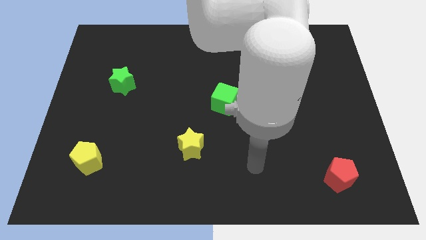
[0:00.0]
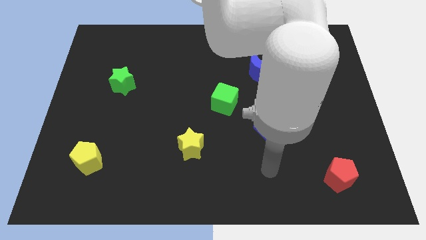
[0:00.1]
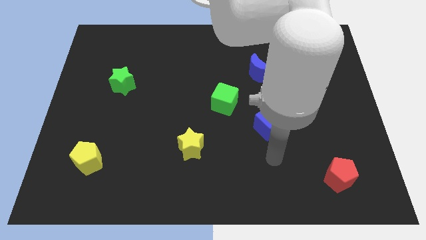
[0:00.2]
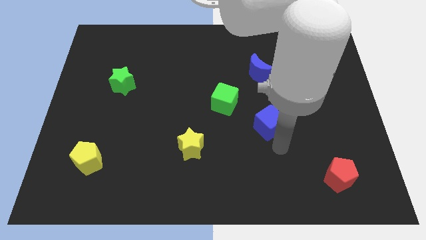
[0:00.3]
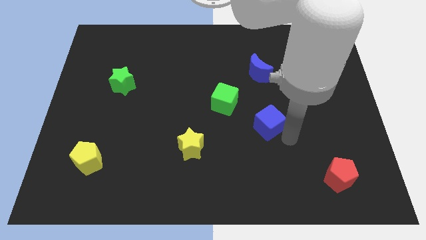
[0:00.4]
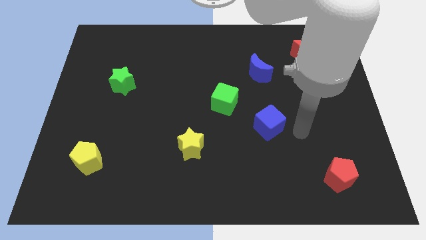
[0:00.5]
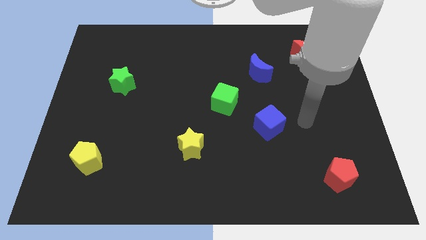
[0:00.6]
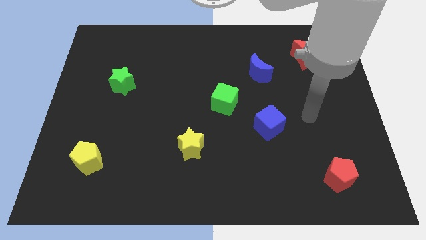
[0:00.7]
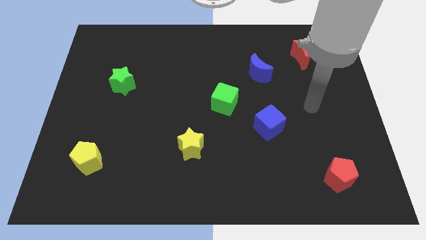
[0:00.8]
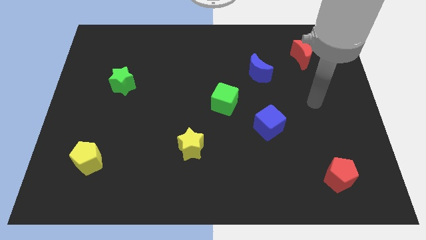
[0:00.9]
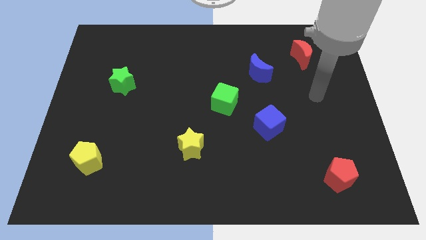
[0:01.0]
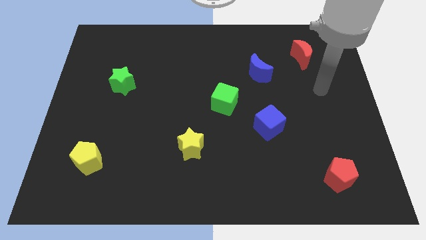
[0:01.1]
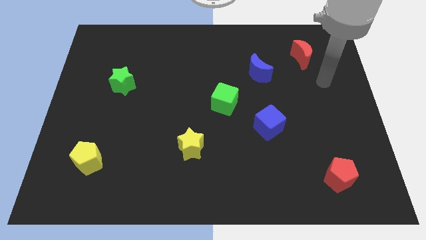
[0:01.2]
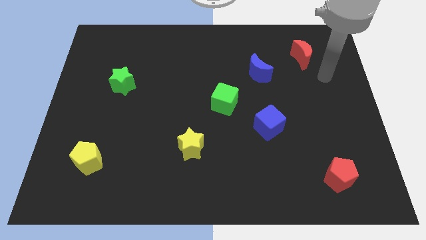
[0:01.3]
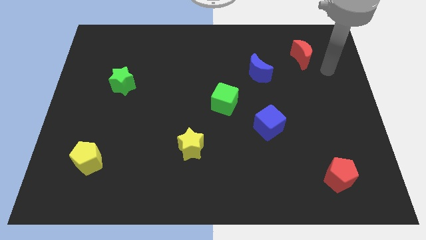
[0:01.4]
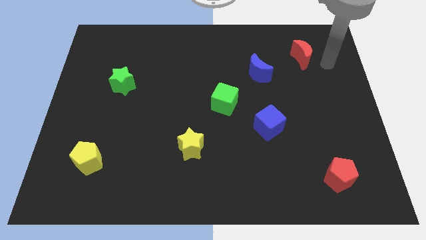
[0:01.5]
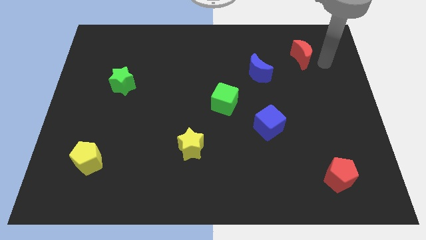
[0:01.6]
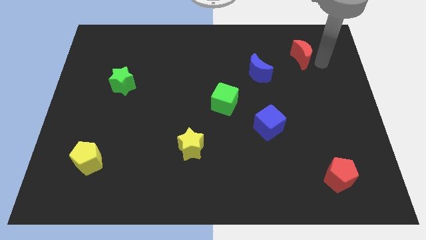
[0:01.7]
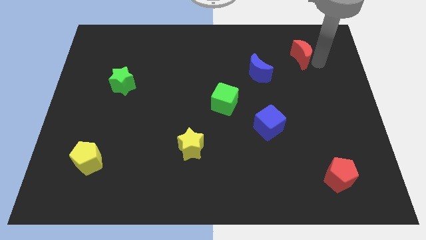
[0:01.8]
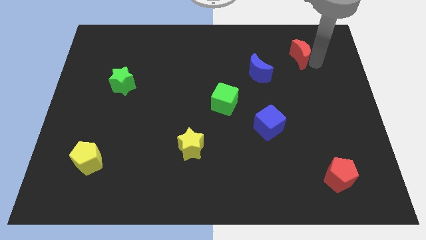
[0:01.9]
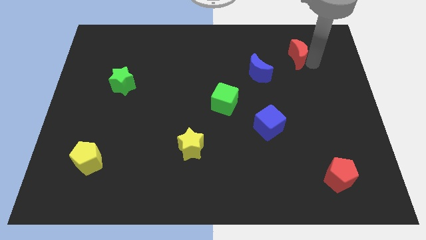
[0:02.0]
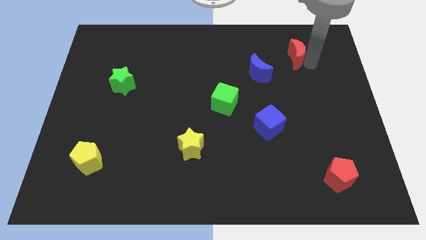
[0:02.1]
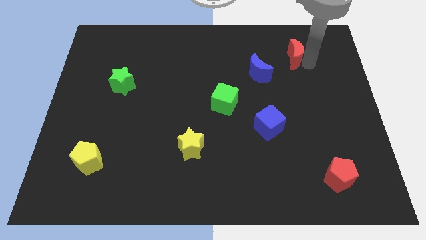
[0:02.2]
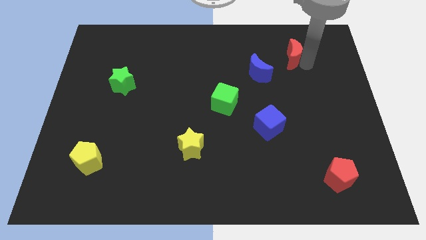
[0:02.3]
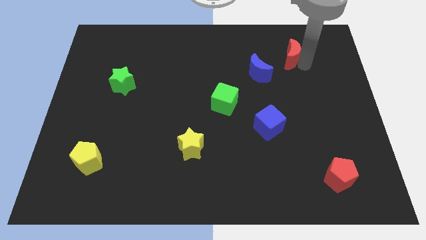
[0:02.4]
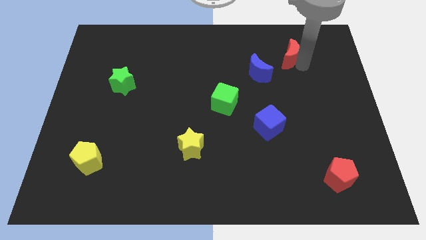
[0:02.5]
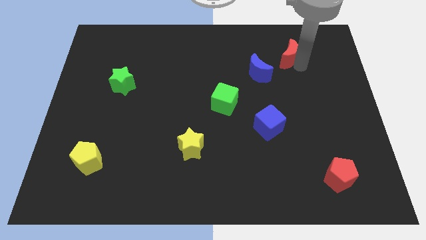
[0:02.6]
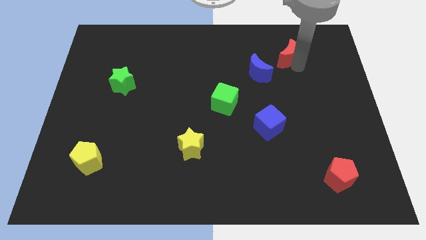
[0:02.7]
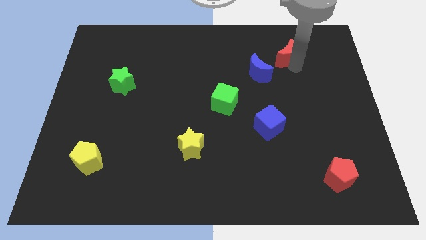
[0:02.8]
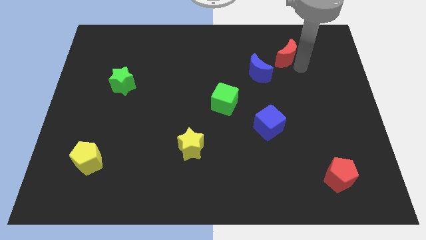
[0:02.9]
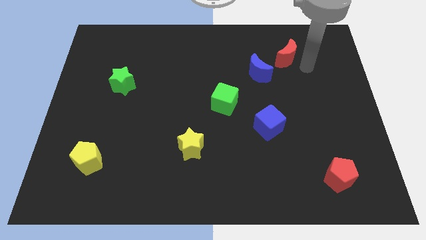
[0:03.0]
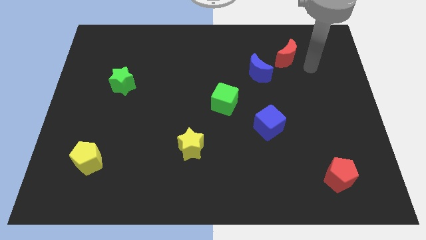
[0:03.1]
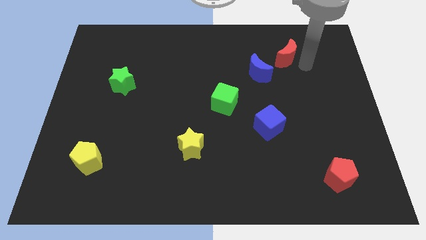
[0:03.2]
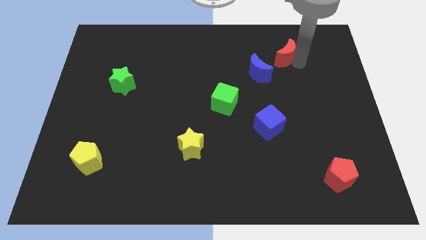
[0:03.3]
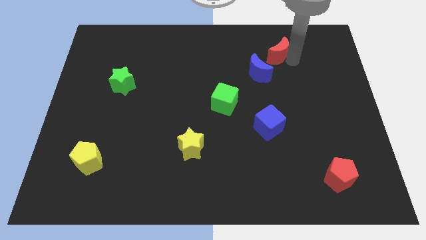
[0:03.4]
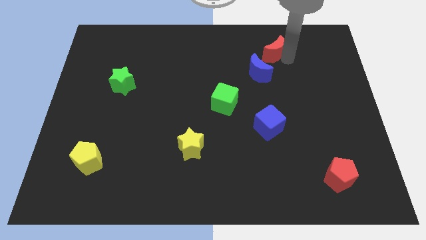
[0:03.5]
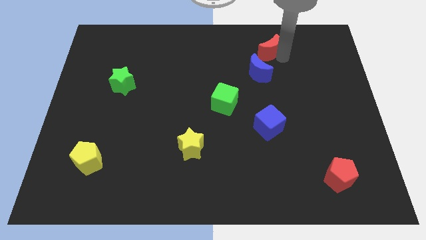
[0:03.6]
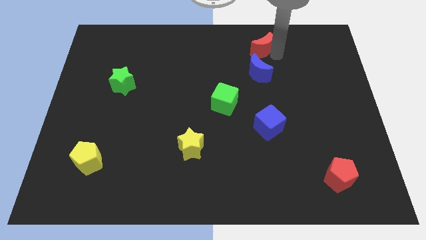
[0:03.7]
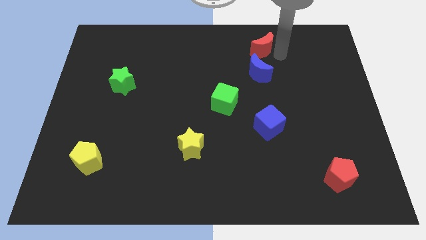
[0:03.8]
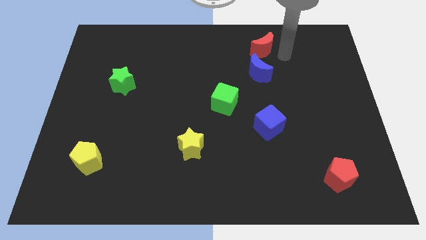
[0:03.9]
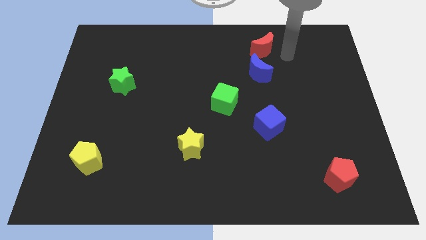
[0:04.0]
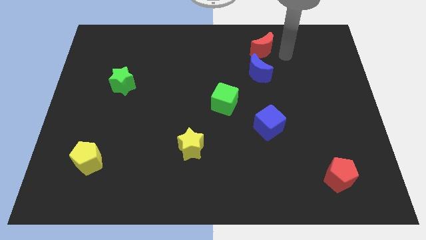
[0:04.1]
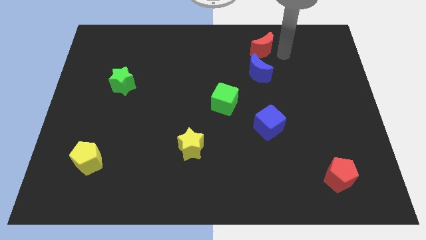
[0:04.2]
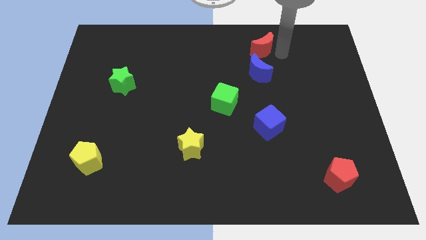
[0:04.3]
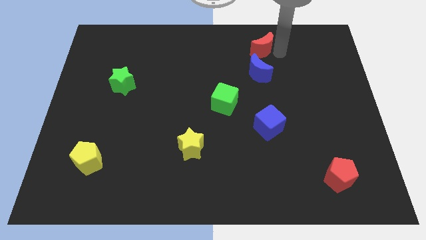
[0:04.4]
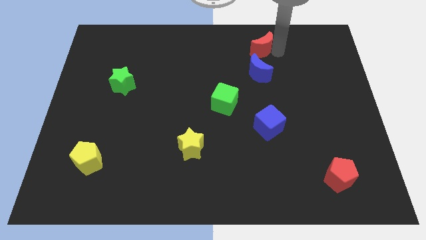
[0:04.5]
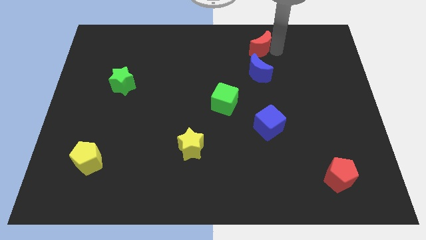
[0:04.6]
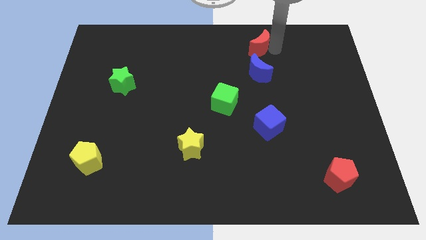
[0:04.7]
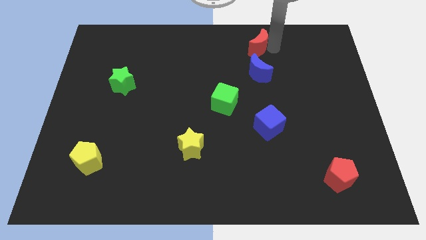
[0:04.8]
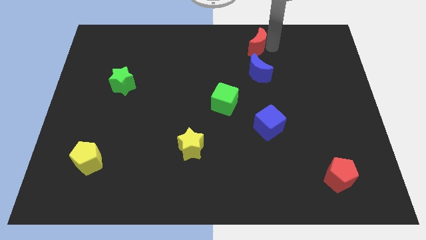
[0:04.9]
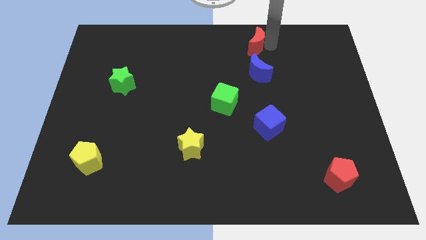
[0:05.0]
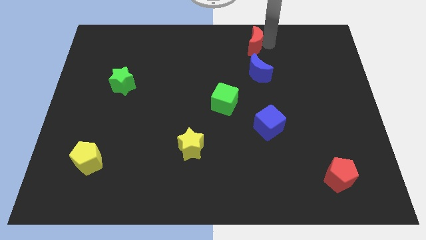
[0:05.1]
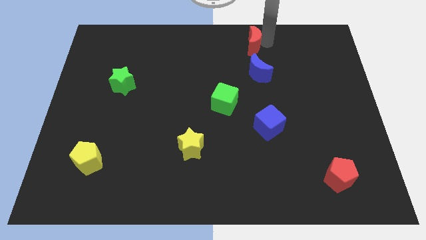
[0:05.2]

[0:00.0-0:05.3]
move the red moon to the top side

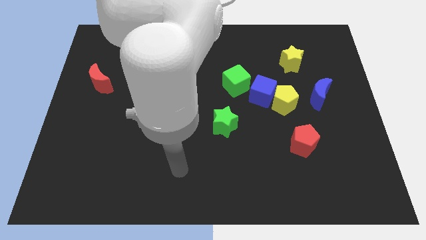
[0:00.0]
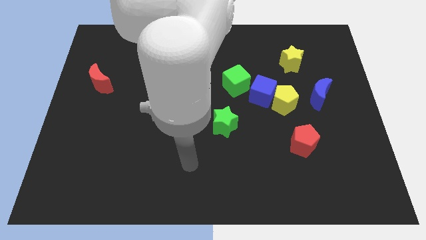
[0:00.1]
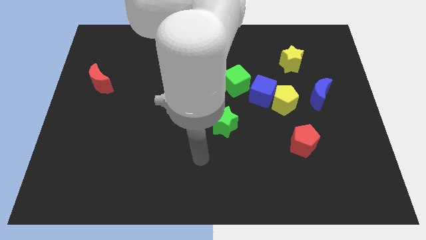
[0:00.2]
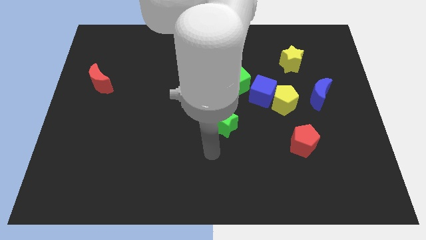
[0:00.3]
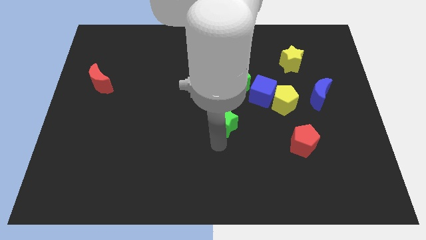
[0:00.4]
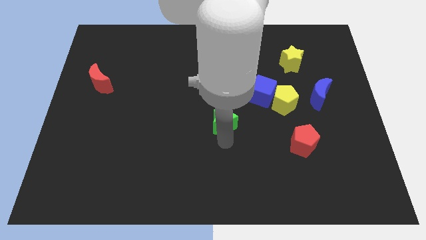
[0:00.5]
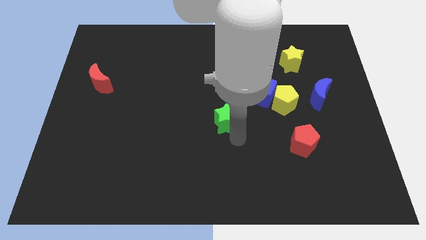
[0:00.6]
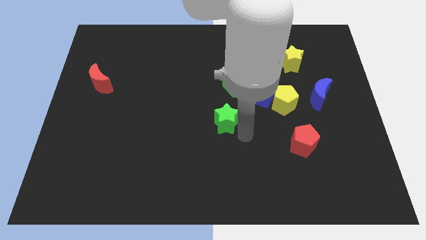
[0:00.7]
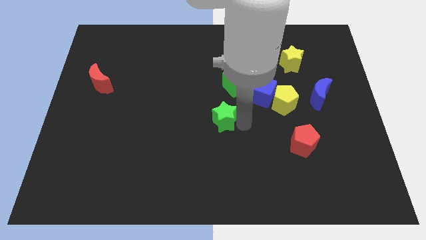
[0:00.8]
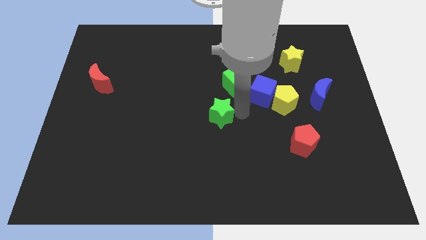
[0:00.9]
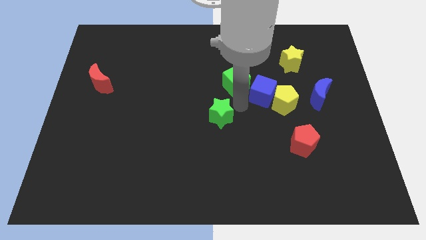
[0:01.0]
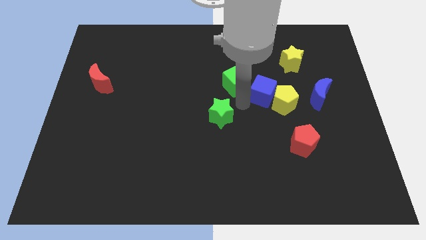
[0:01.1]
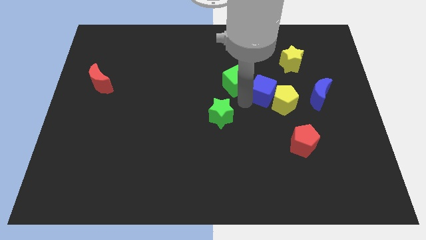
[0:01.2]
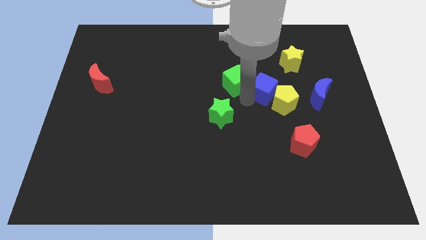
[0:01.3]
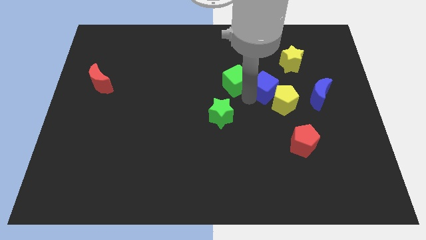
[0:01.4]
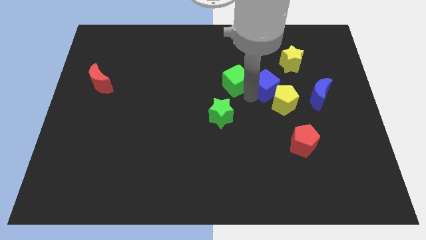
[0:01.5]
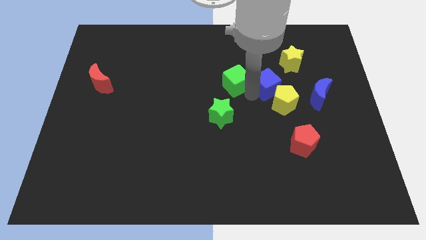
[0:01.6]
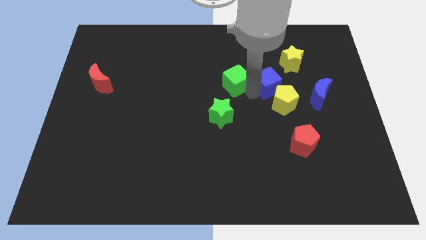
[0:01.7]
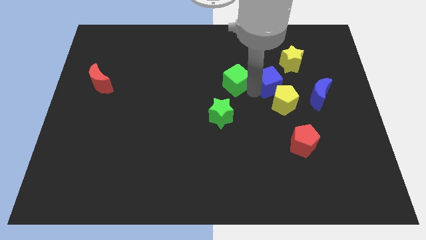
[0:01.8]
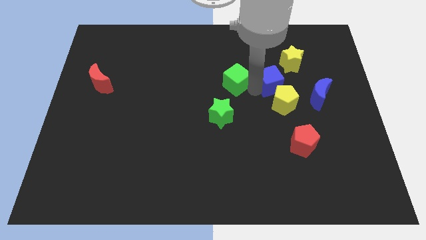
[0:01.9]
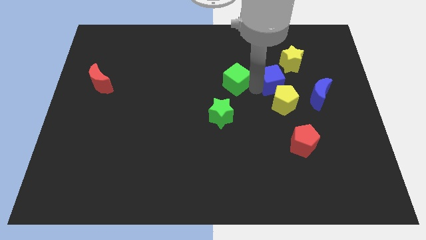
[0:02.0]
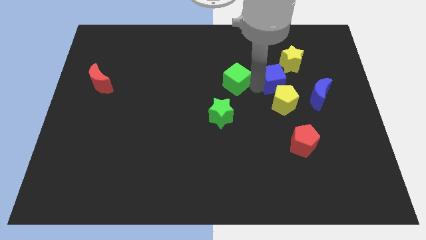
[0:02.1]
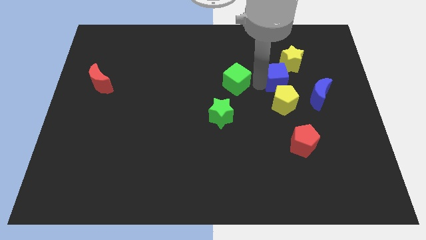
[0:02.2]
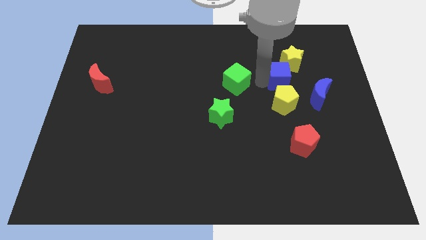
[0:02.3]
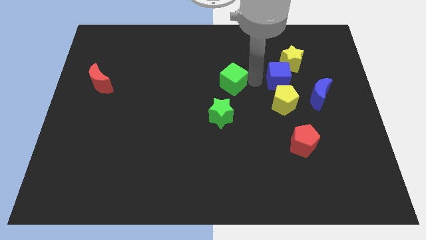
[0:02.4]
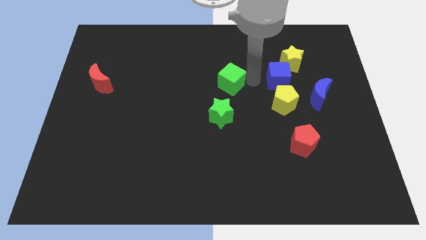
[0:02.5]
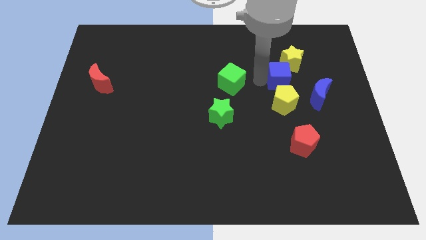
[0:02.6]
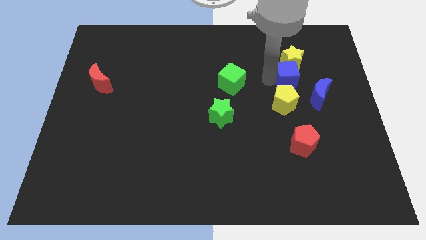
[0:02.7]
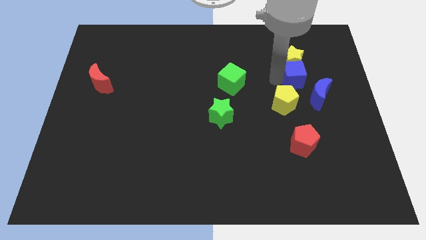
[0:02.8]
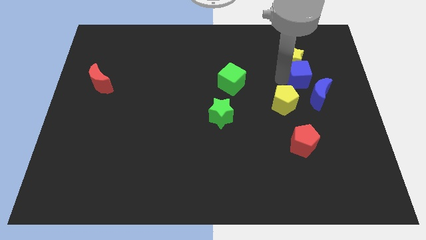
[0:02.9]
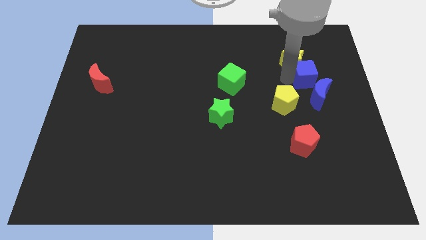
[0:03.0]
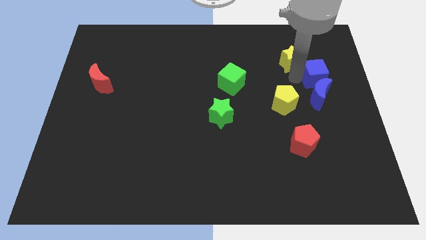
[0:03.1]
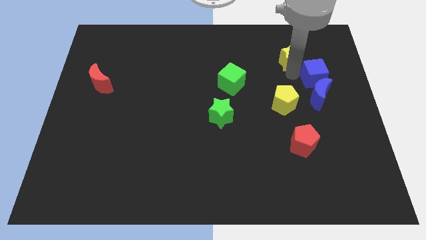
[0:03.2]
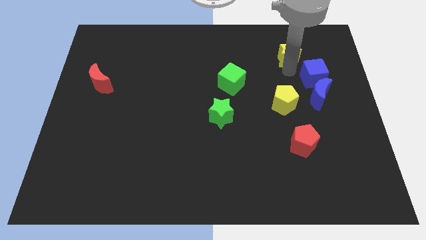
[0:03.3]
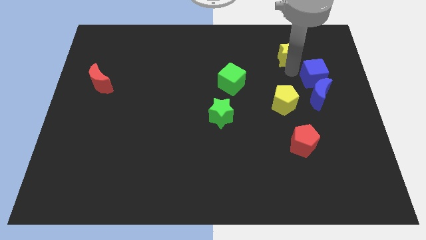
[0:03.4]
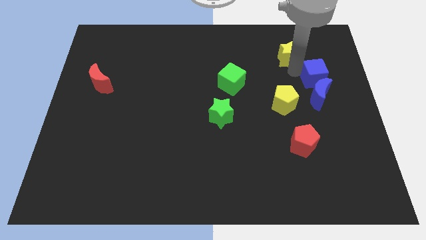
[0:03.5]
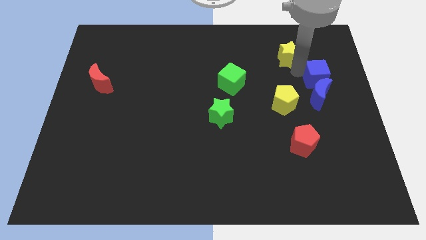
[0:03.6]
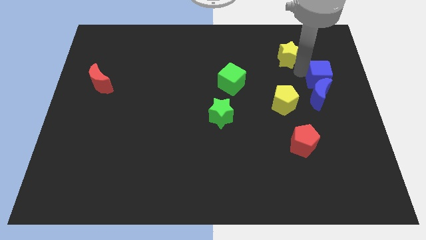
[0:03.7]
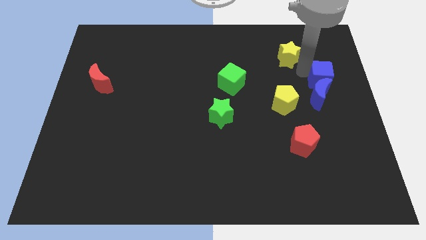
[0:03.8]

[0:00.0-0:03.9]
put the blue cube to the center right
